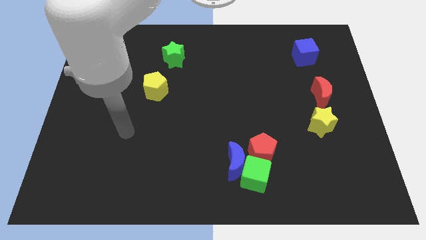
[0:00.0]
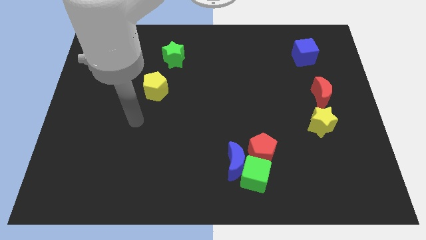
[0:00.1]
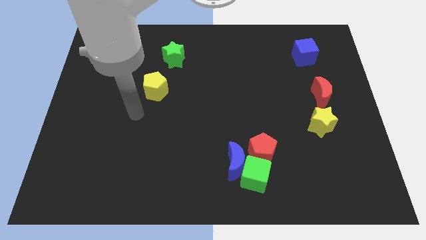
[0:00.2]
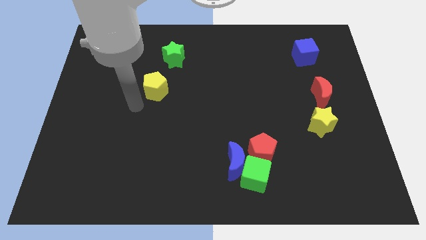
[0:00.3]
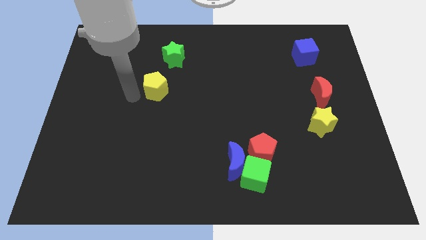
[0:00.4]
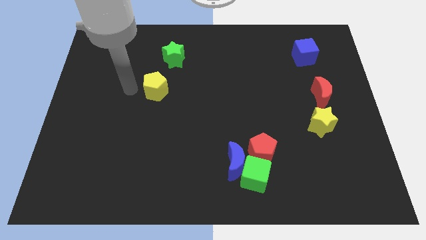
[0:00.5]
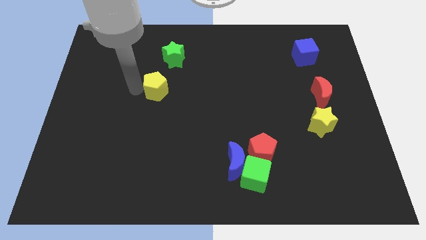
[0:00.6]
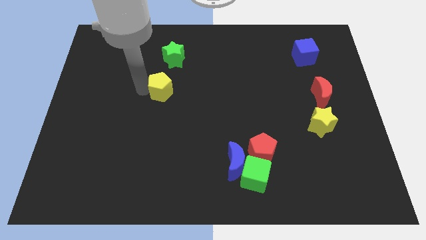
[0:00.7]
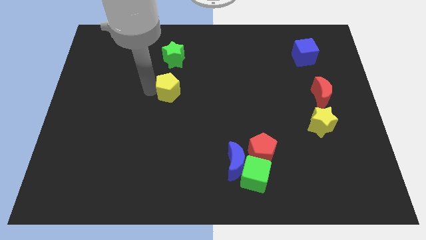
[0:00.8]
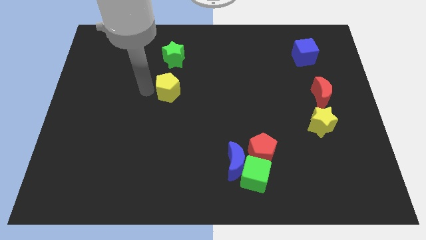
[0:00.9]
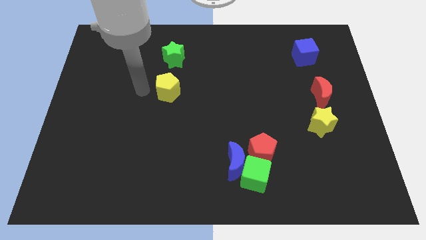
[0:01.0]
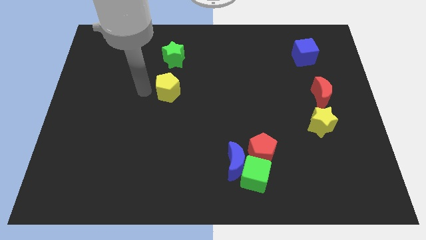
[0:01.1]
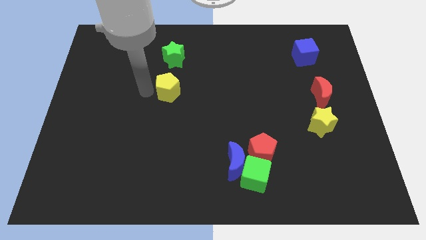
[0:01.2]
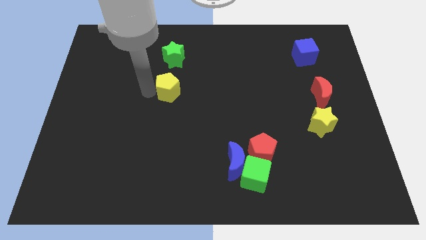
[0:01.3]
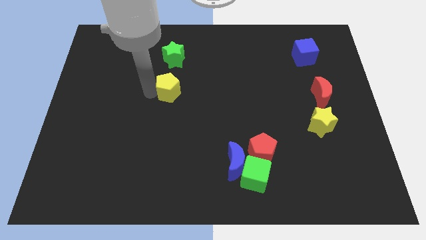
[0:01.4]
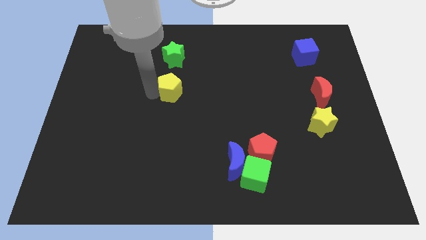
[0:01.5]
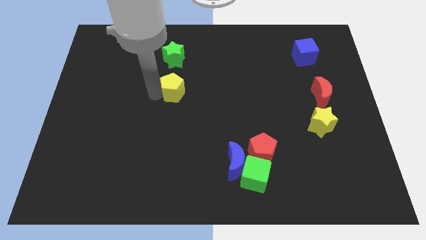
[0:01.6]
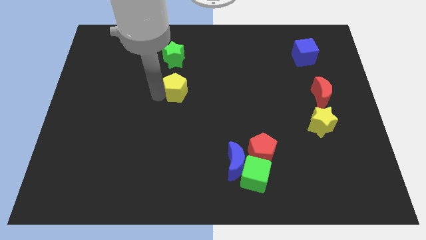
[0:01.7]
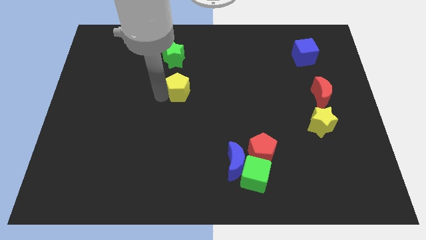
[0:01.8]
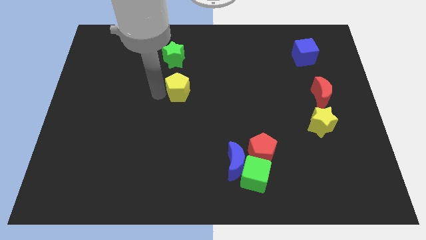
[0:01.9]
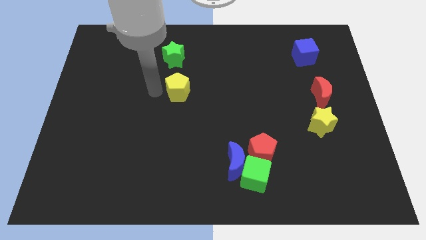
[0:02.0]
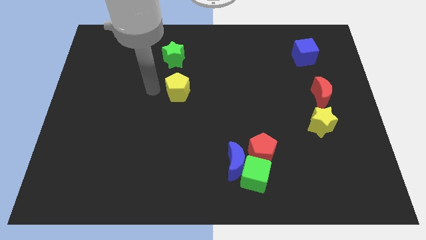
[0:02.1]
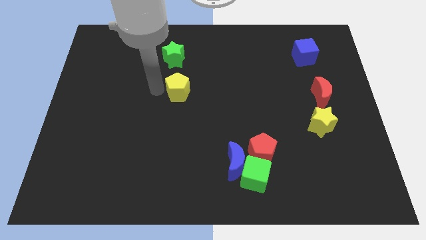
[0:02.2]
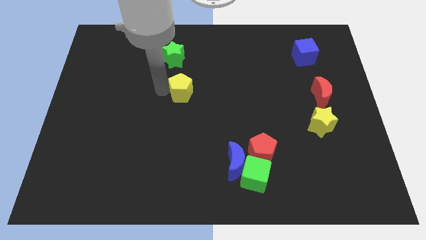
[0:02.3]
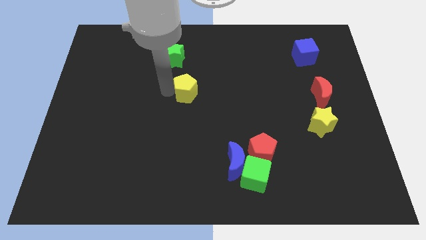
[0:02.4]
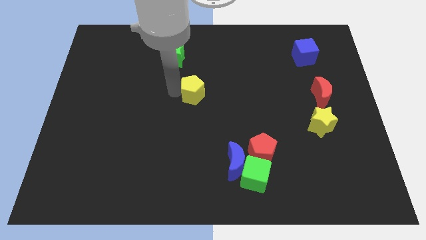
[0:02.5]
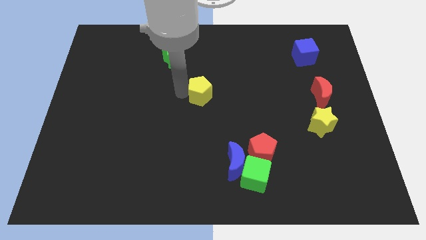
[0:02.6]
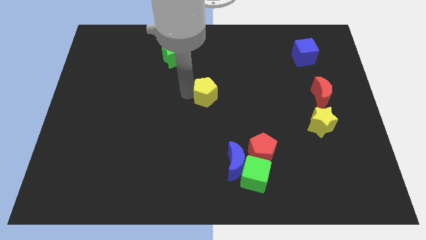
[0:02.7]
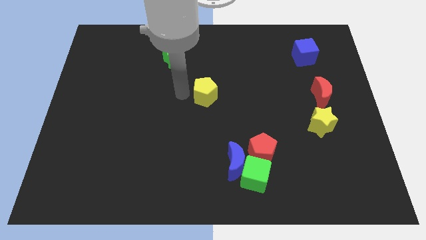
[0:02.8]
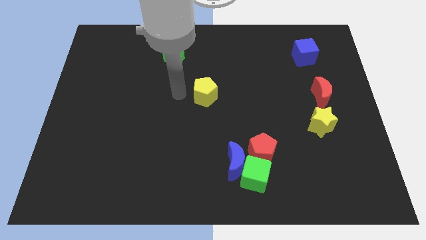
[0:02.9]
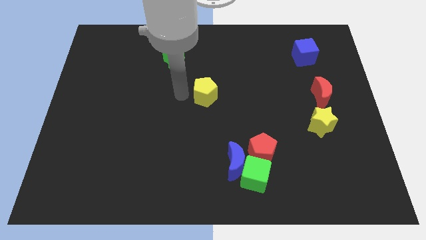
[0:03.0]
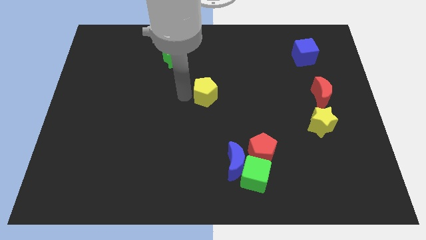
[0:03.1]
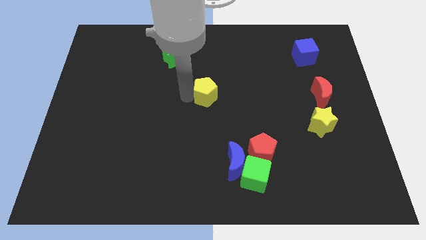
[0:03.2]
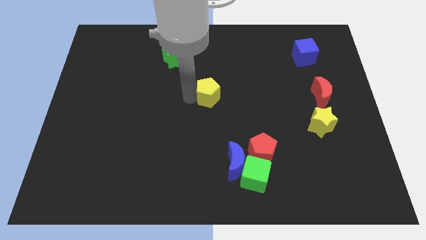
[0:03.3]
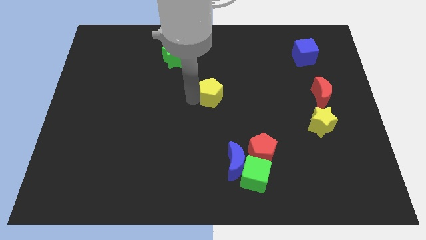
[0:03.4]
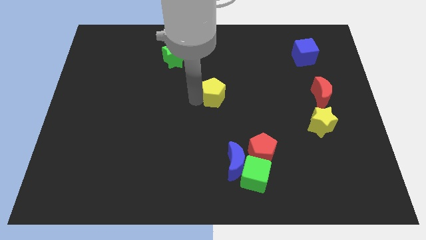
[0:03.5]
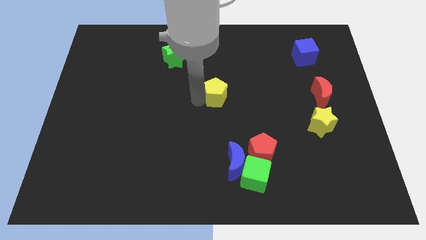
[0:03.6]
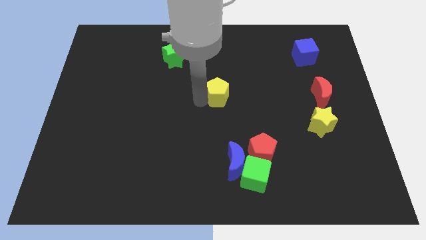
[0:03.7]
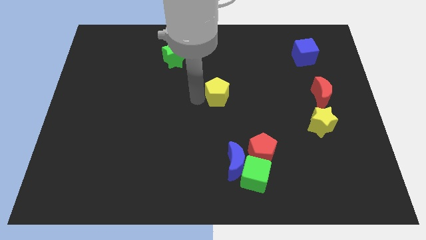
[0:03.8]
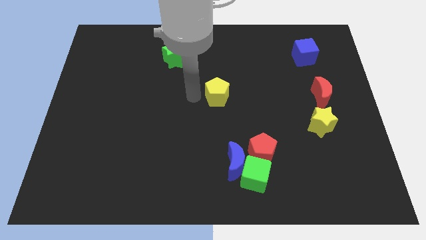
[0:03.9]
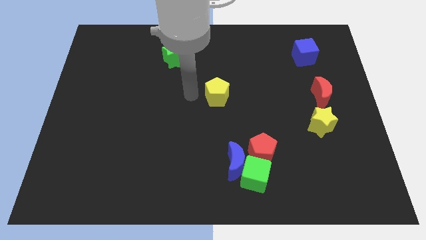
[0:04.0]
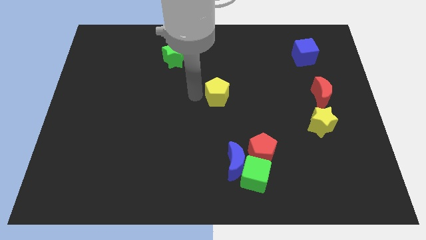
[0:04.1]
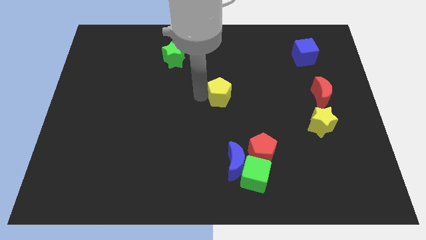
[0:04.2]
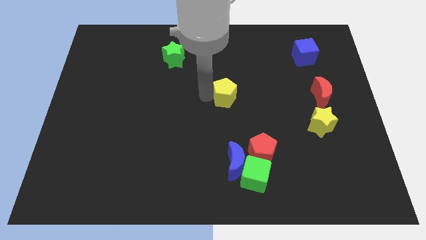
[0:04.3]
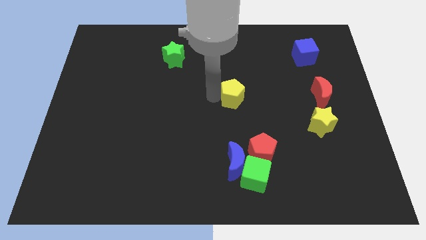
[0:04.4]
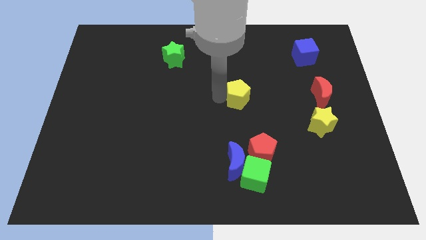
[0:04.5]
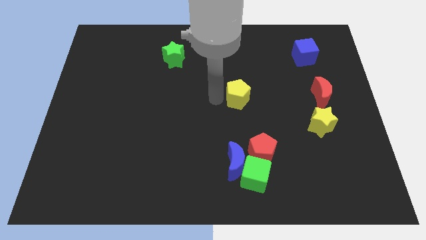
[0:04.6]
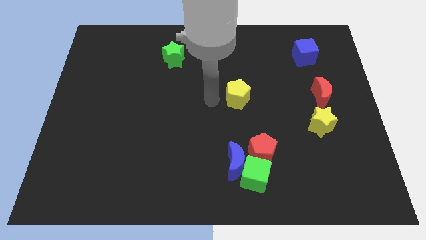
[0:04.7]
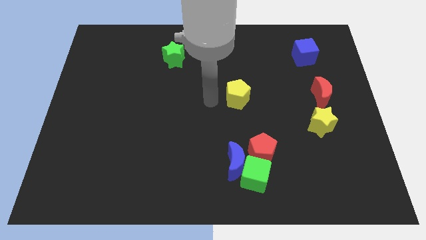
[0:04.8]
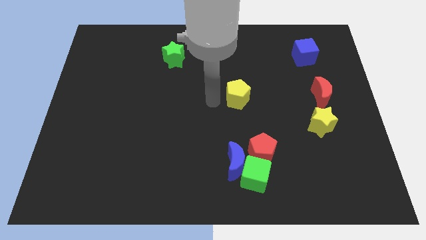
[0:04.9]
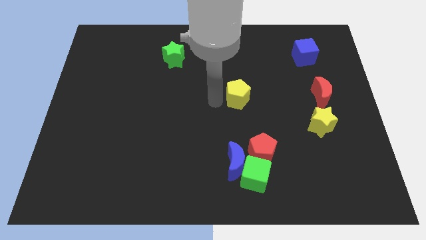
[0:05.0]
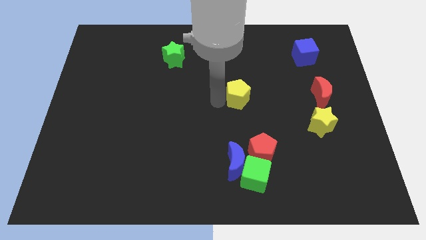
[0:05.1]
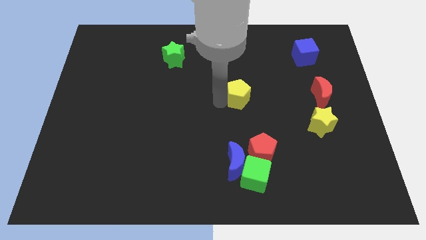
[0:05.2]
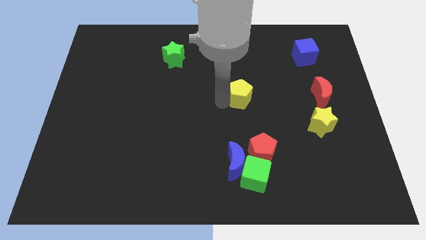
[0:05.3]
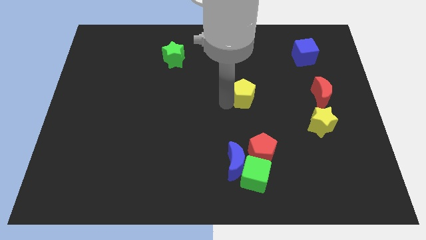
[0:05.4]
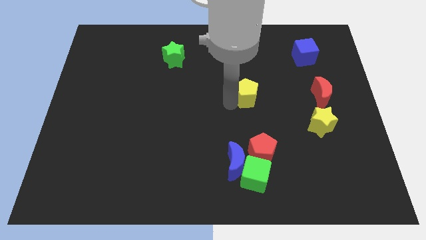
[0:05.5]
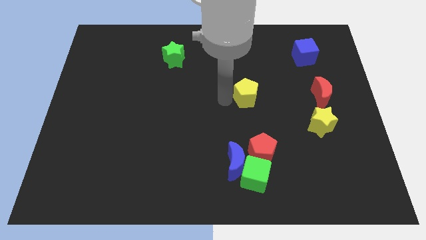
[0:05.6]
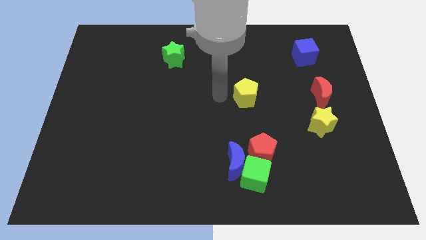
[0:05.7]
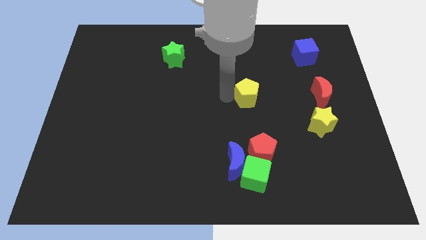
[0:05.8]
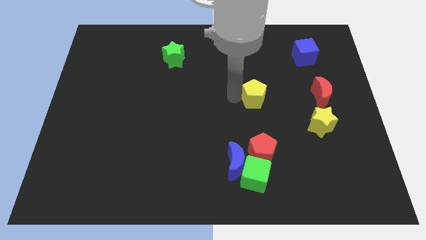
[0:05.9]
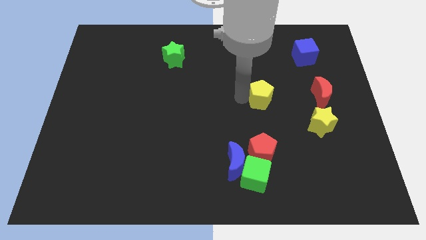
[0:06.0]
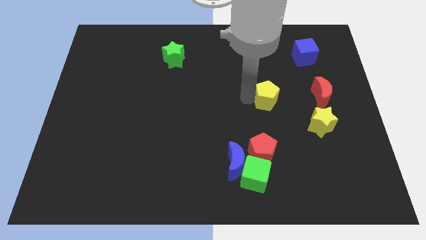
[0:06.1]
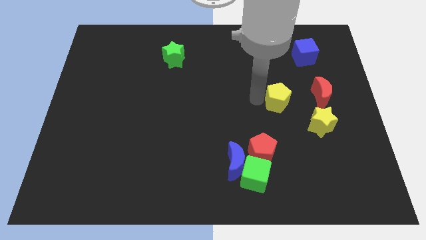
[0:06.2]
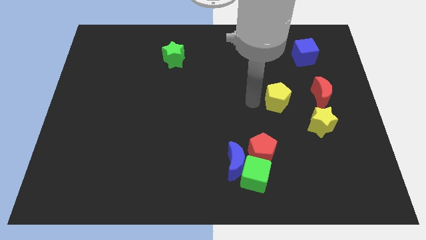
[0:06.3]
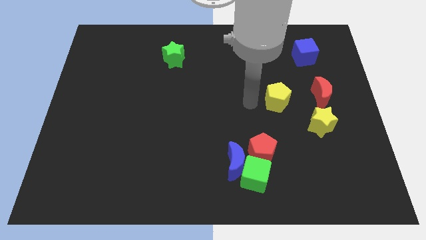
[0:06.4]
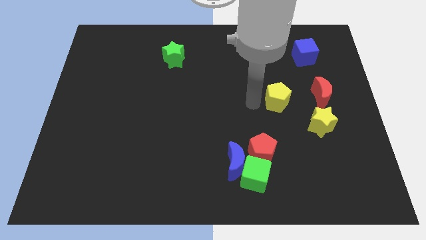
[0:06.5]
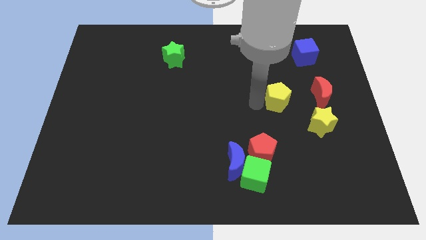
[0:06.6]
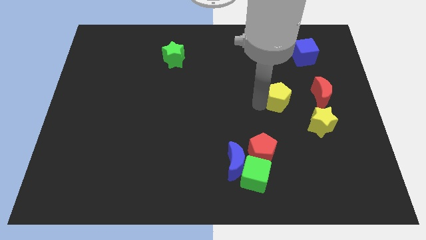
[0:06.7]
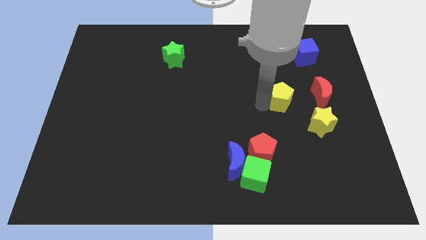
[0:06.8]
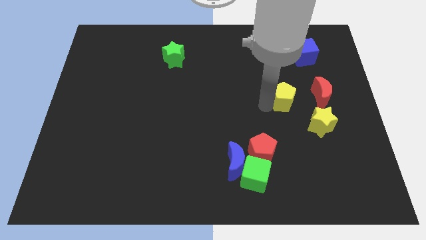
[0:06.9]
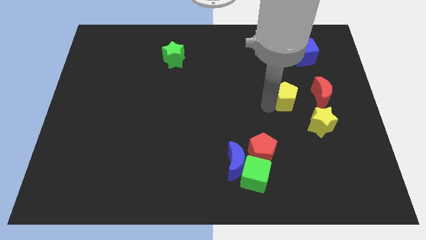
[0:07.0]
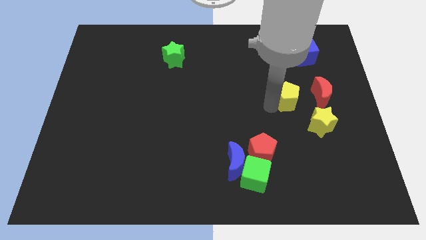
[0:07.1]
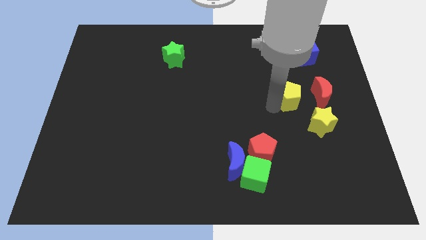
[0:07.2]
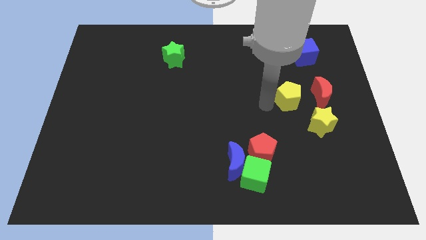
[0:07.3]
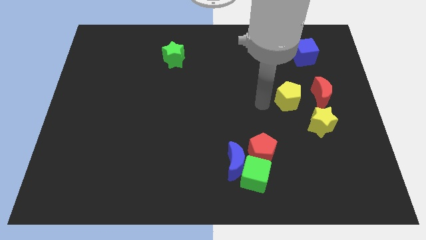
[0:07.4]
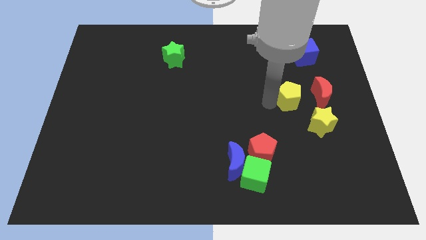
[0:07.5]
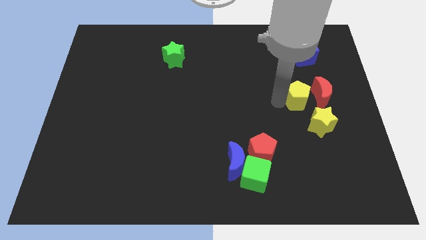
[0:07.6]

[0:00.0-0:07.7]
put the yellow pentagon towards the red moon

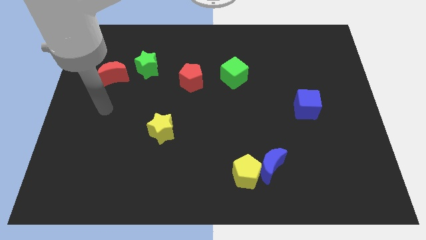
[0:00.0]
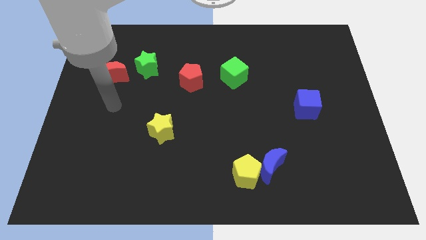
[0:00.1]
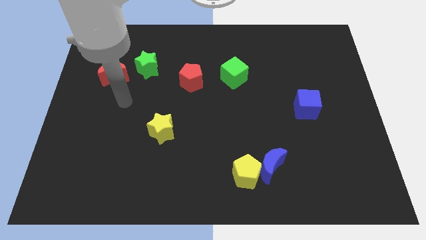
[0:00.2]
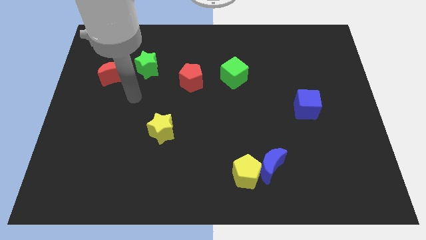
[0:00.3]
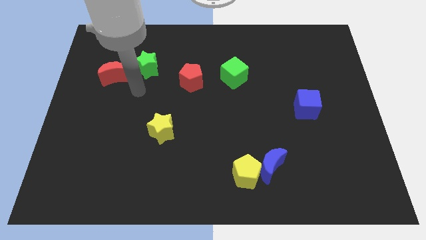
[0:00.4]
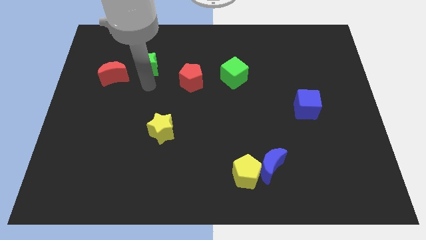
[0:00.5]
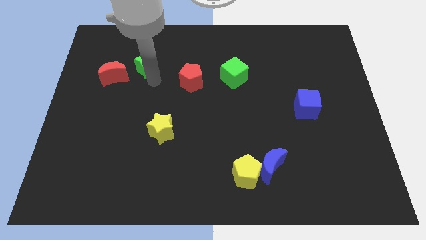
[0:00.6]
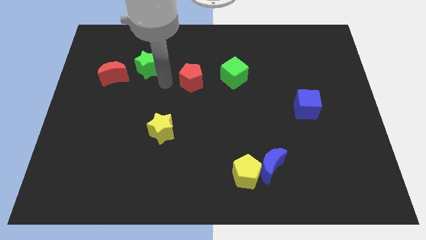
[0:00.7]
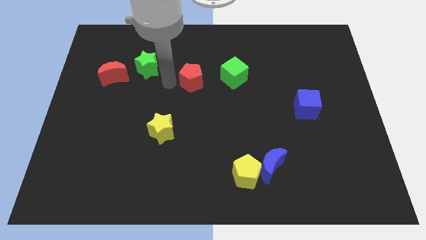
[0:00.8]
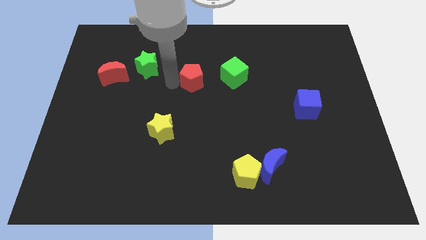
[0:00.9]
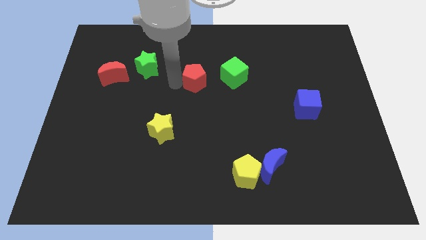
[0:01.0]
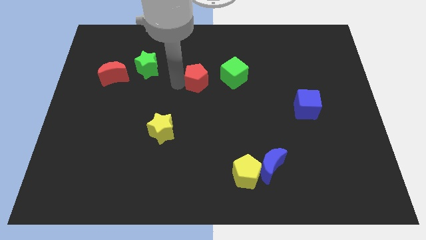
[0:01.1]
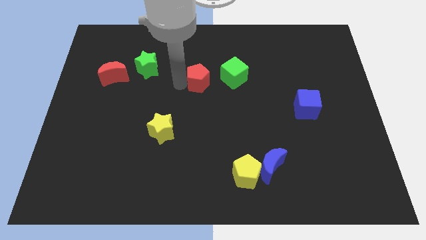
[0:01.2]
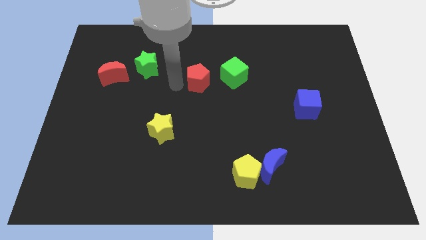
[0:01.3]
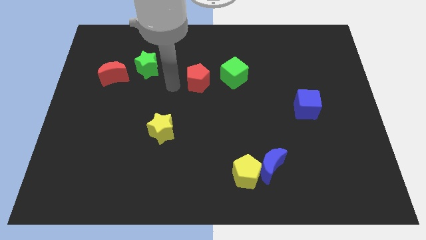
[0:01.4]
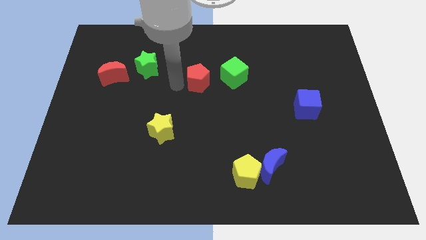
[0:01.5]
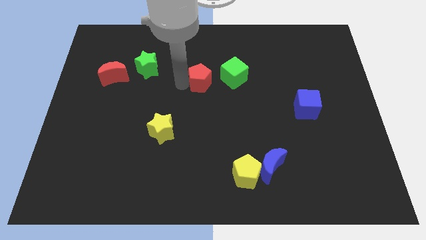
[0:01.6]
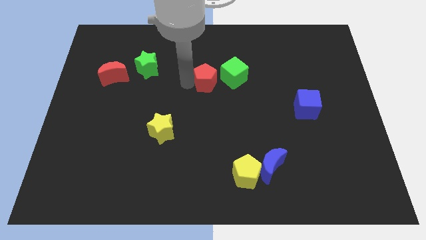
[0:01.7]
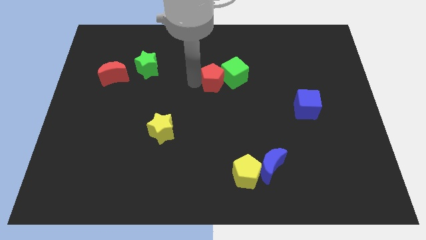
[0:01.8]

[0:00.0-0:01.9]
slide the red pentagon close to the green cube
